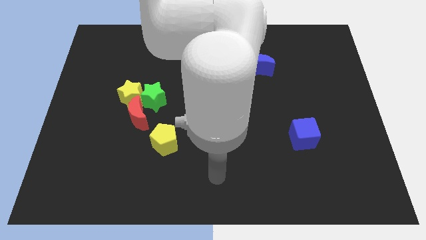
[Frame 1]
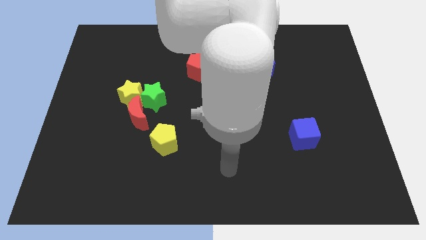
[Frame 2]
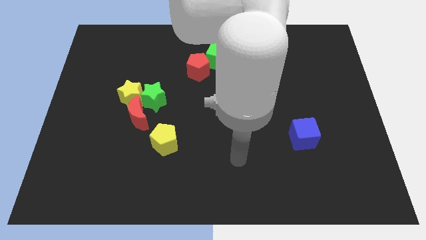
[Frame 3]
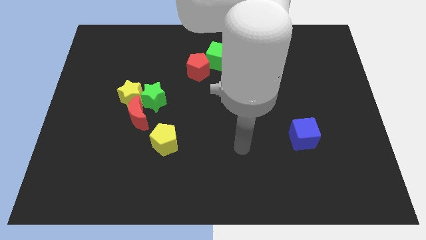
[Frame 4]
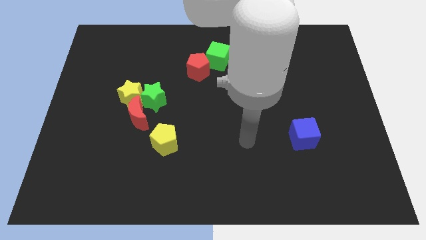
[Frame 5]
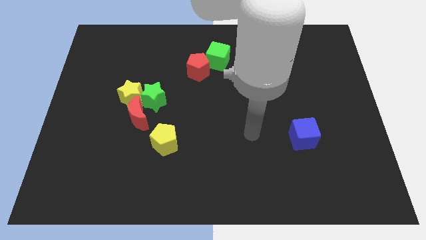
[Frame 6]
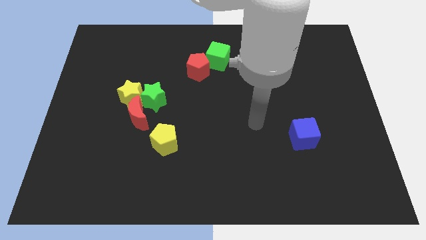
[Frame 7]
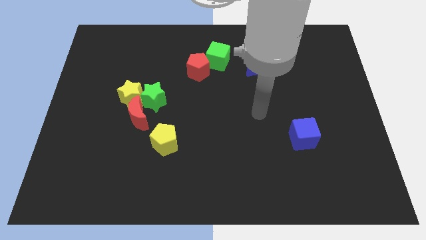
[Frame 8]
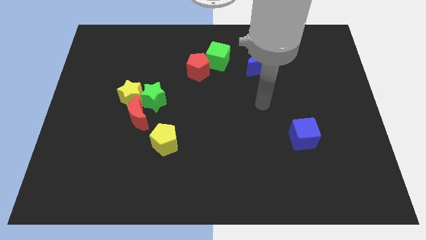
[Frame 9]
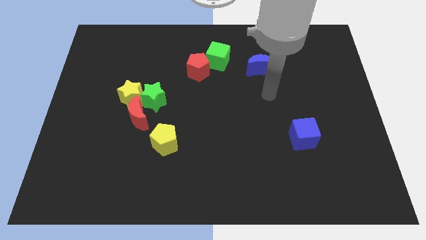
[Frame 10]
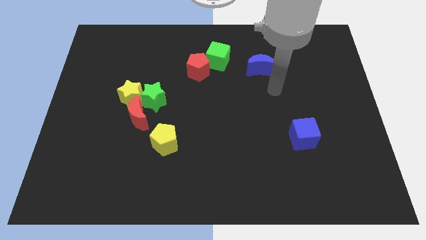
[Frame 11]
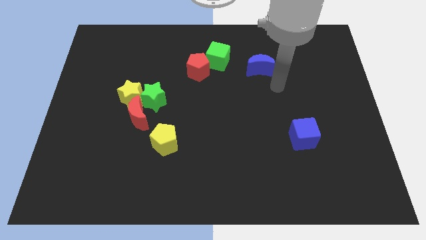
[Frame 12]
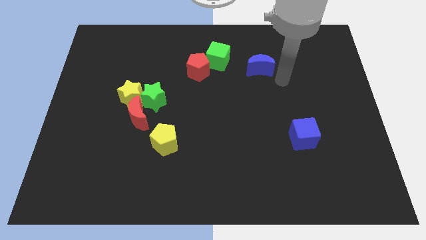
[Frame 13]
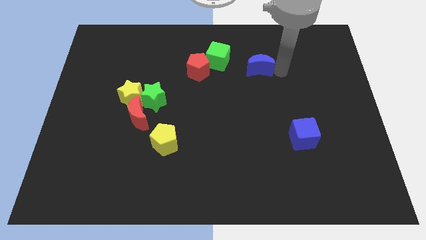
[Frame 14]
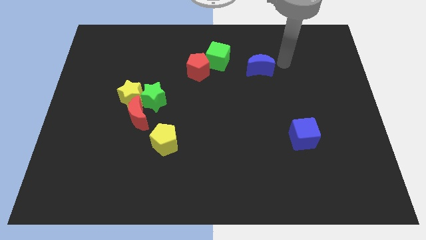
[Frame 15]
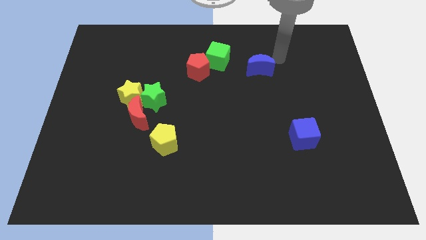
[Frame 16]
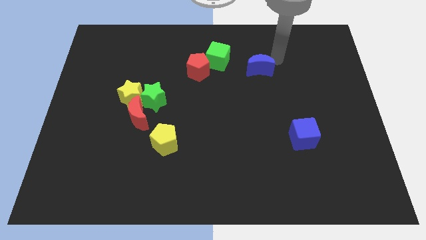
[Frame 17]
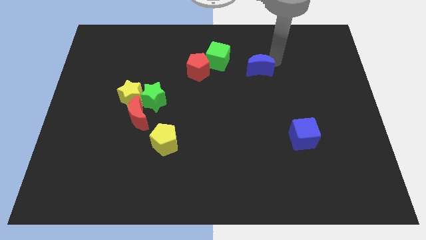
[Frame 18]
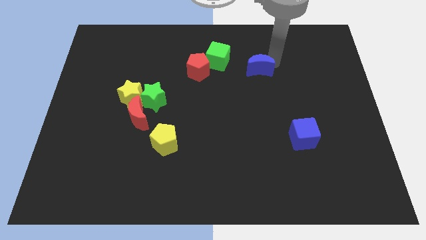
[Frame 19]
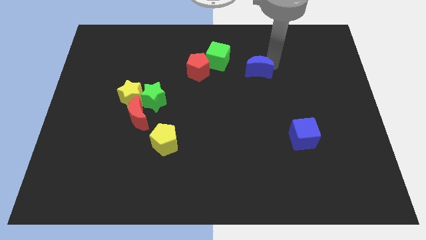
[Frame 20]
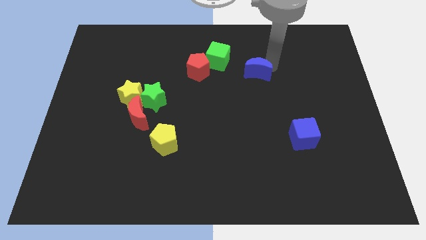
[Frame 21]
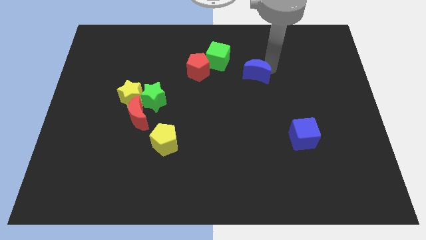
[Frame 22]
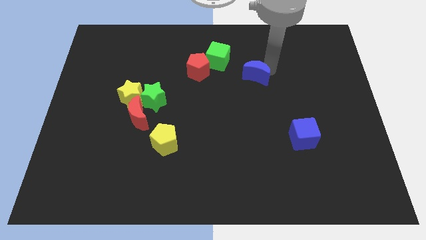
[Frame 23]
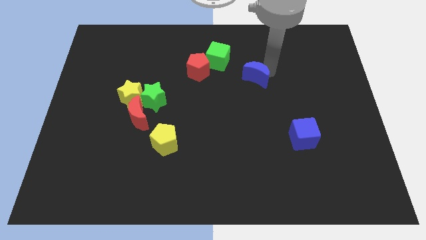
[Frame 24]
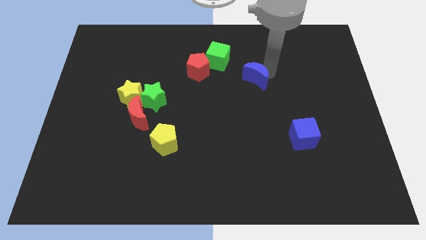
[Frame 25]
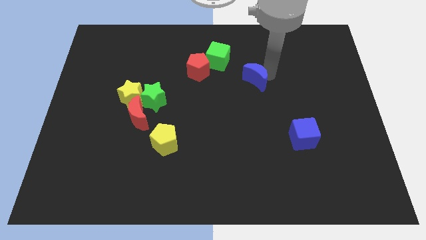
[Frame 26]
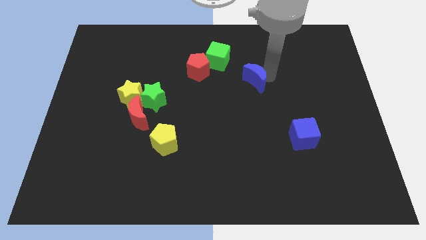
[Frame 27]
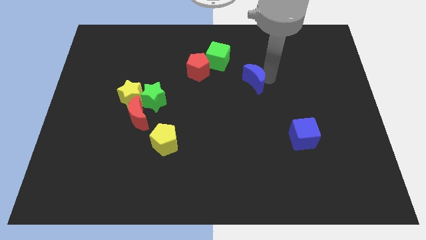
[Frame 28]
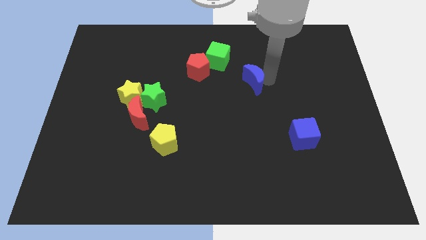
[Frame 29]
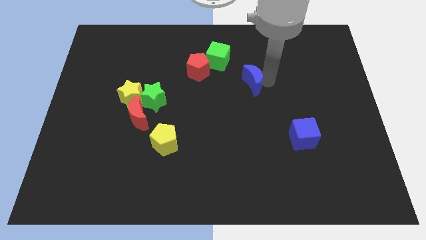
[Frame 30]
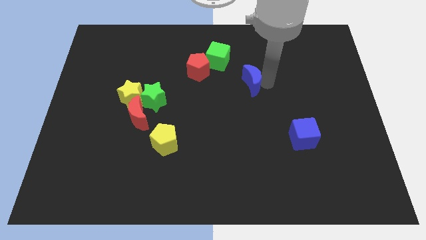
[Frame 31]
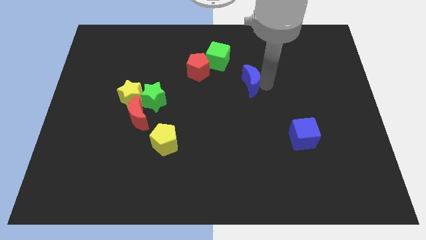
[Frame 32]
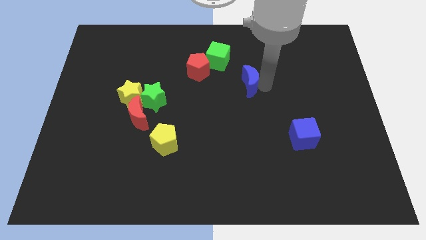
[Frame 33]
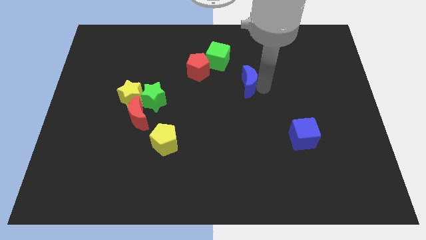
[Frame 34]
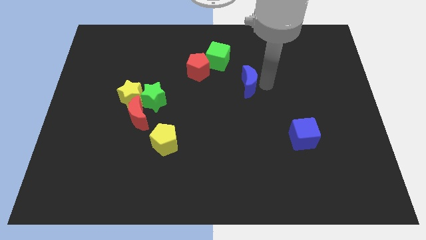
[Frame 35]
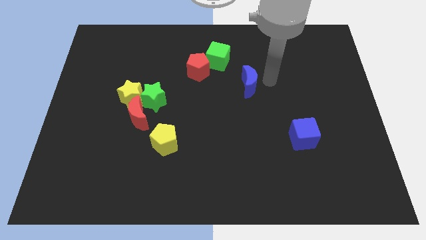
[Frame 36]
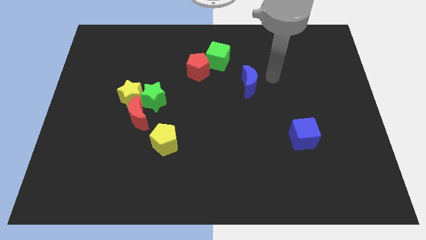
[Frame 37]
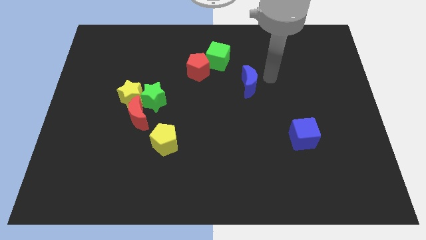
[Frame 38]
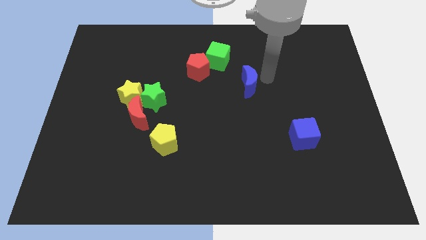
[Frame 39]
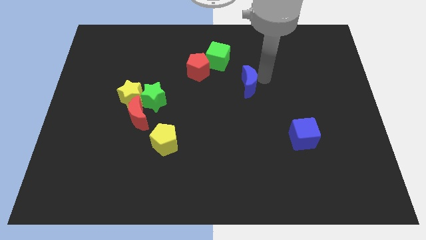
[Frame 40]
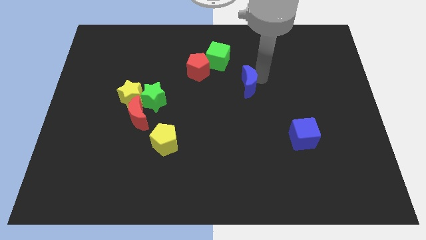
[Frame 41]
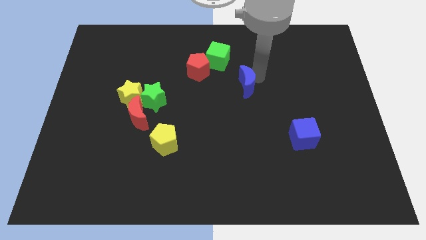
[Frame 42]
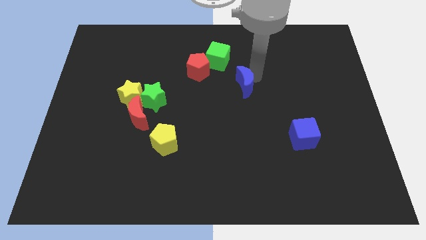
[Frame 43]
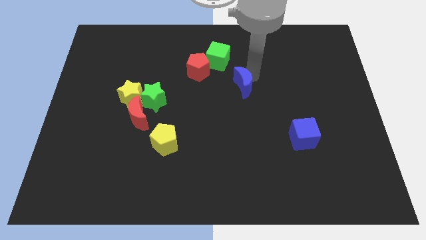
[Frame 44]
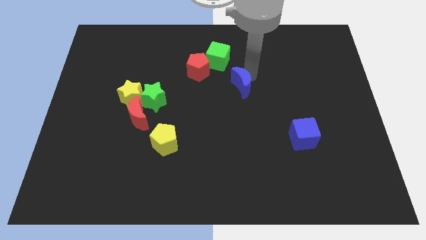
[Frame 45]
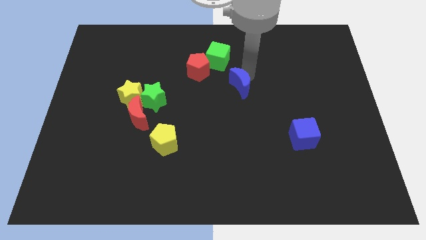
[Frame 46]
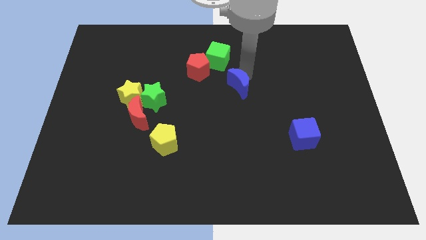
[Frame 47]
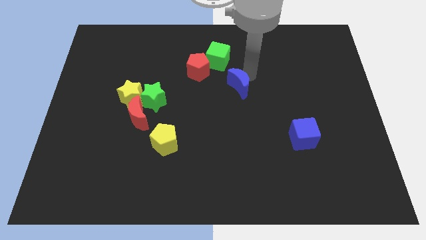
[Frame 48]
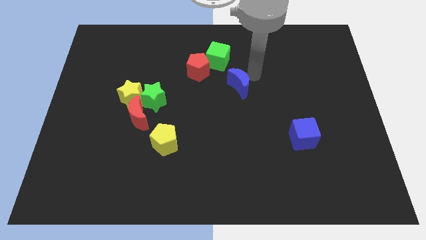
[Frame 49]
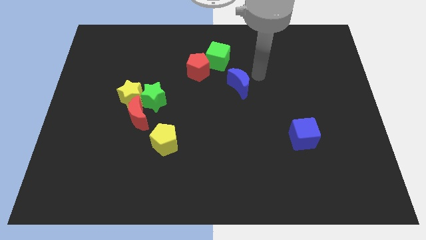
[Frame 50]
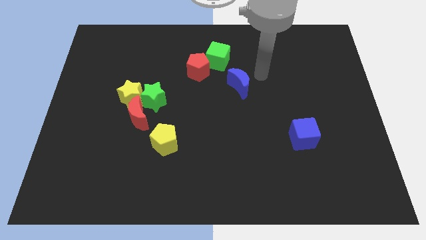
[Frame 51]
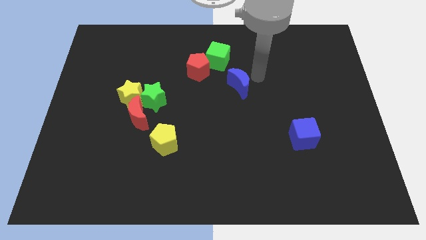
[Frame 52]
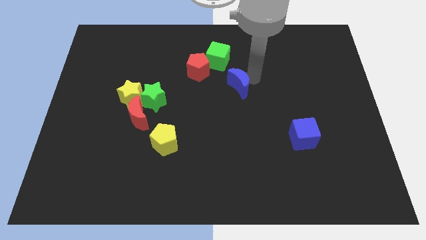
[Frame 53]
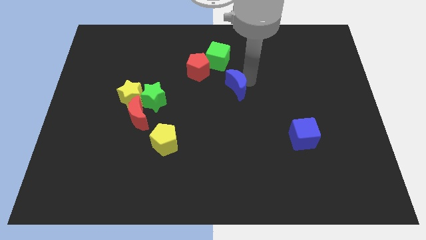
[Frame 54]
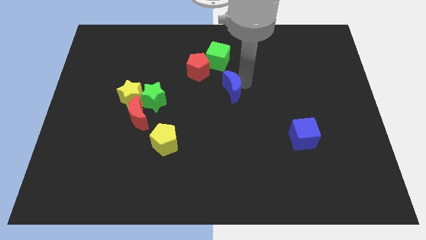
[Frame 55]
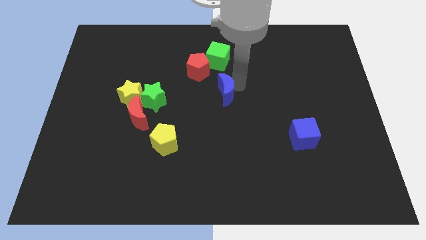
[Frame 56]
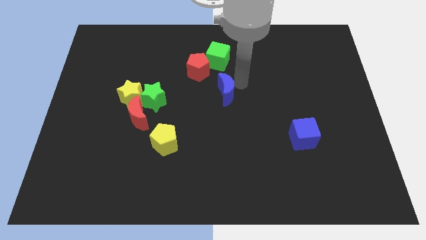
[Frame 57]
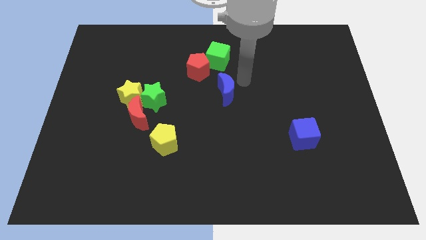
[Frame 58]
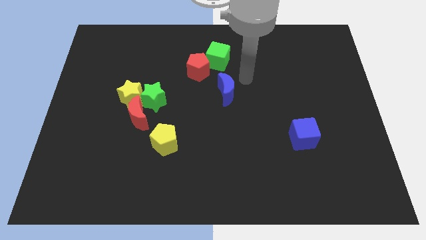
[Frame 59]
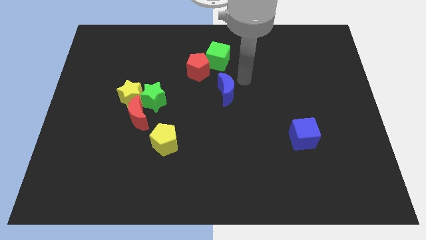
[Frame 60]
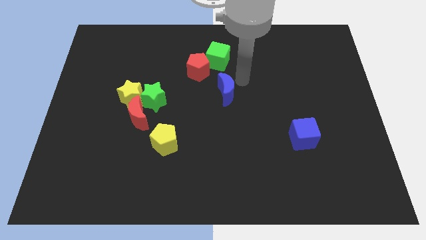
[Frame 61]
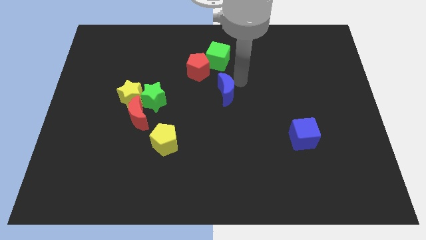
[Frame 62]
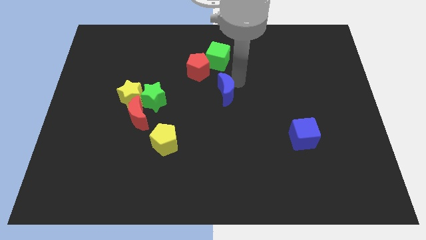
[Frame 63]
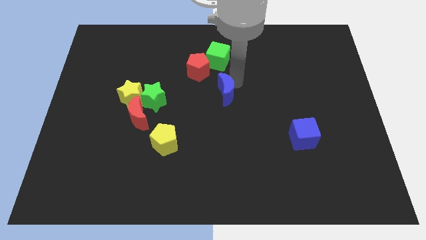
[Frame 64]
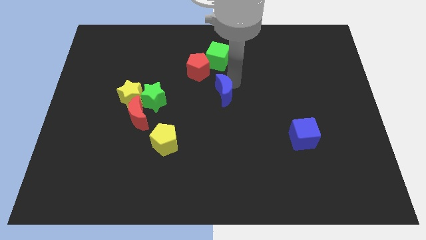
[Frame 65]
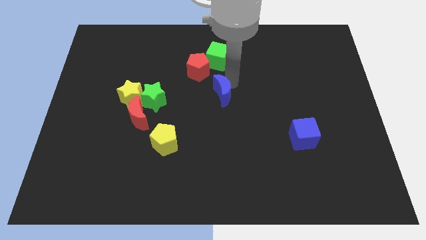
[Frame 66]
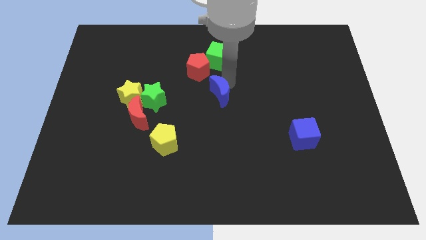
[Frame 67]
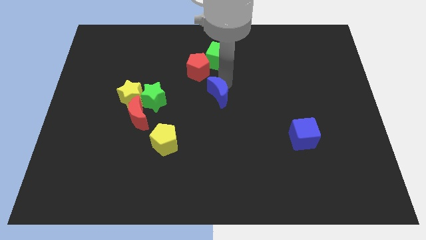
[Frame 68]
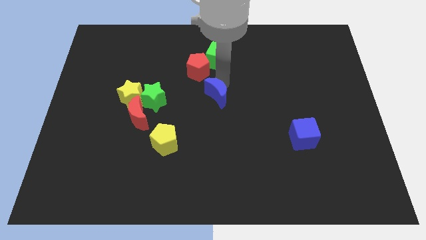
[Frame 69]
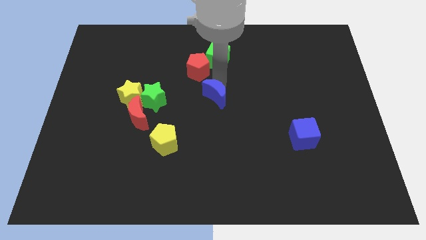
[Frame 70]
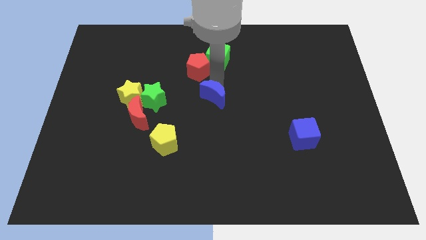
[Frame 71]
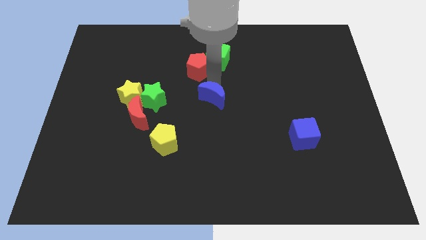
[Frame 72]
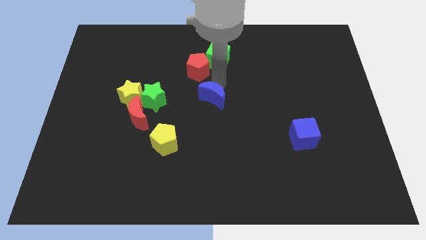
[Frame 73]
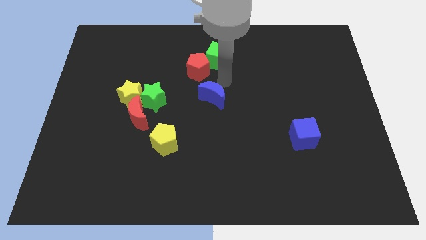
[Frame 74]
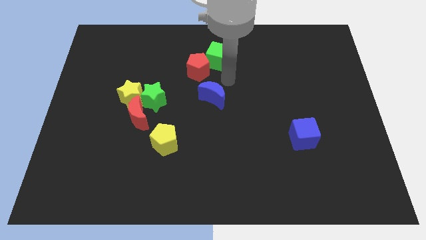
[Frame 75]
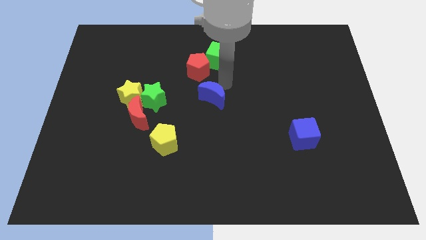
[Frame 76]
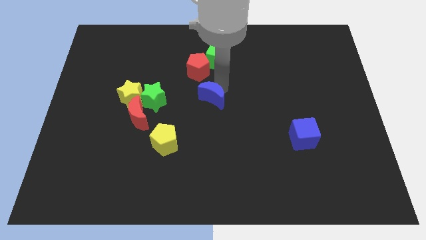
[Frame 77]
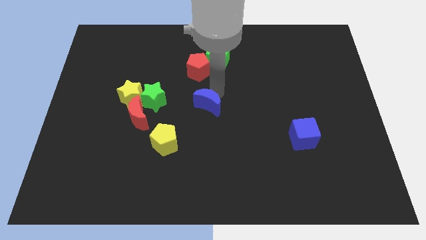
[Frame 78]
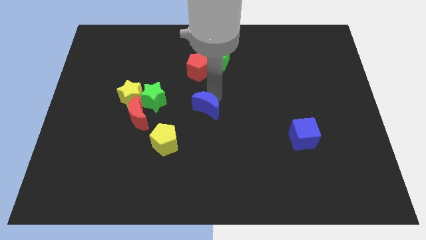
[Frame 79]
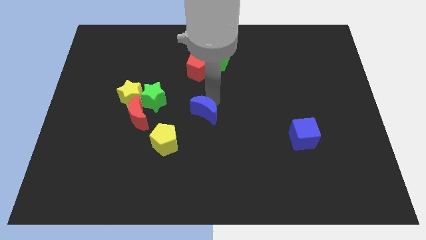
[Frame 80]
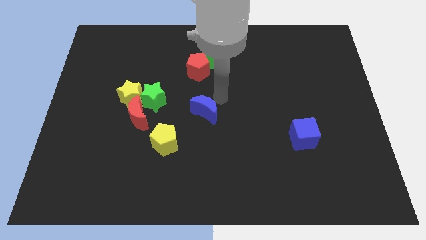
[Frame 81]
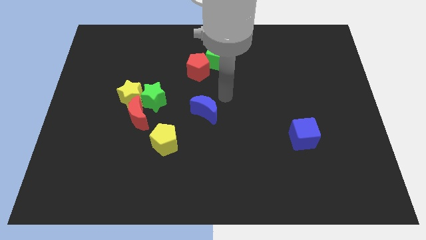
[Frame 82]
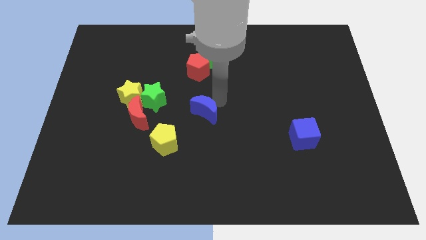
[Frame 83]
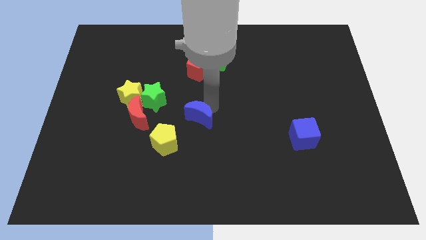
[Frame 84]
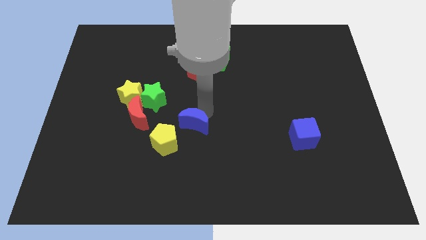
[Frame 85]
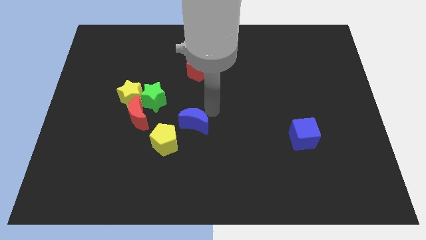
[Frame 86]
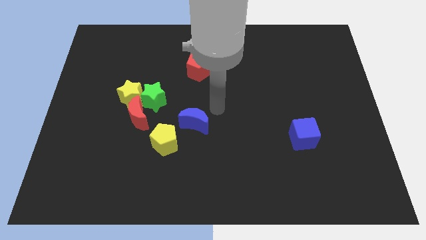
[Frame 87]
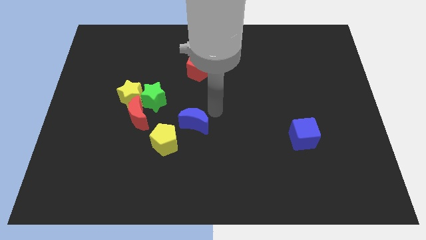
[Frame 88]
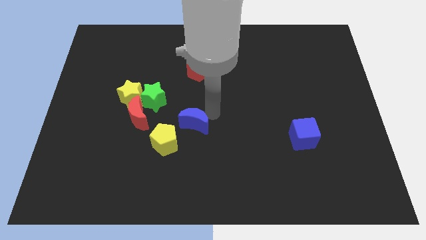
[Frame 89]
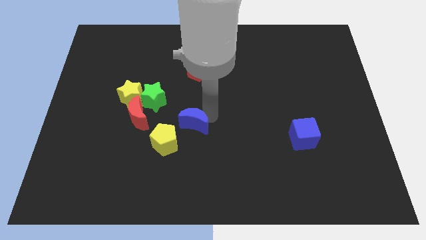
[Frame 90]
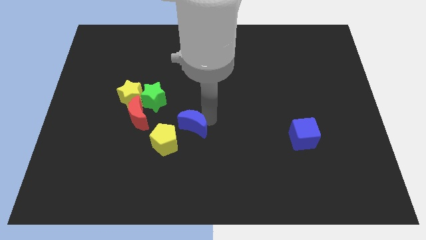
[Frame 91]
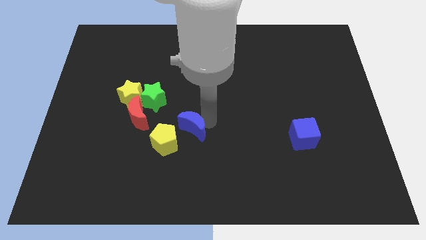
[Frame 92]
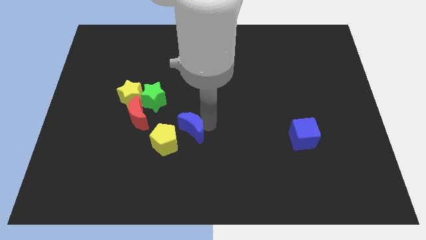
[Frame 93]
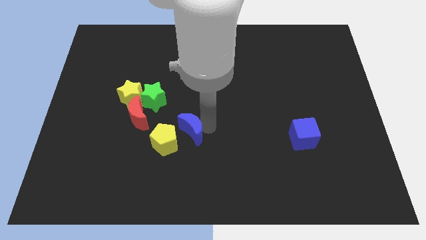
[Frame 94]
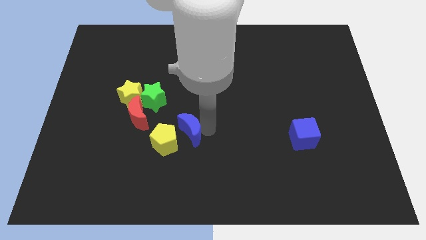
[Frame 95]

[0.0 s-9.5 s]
slide the blue moon next to the yellow pentagon
